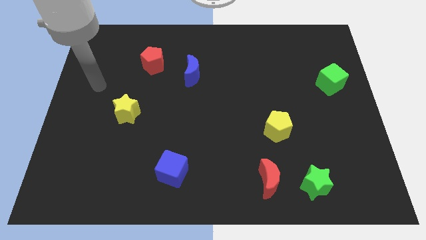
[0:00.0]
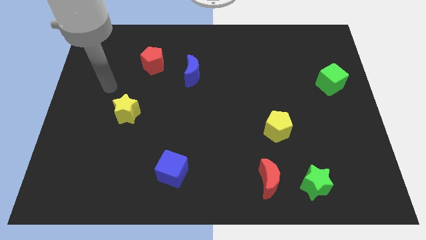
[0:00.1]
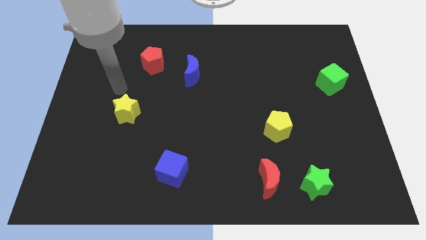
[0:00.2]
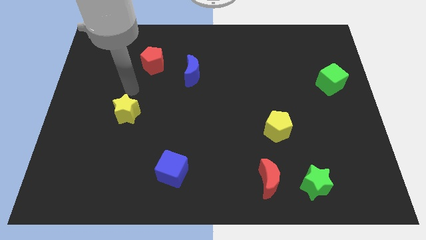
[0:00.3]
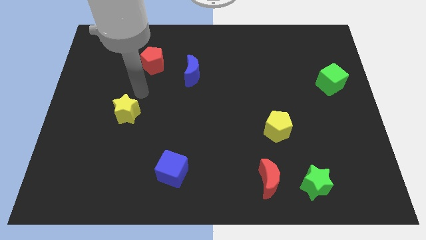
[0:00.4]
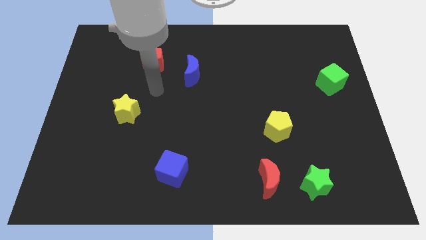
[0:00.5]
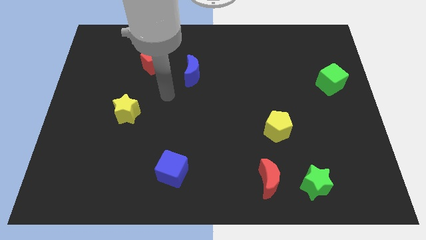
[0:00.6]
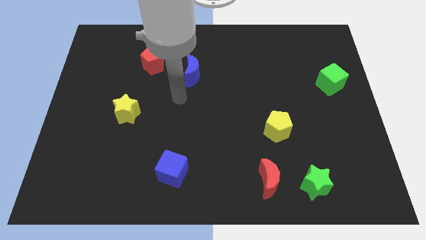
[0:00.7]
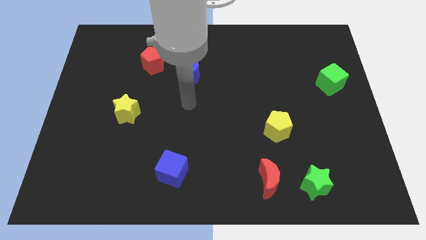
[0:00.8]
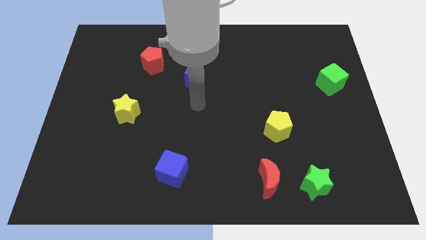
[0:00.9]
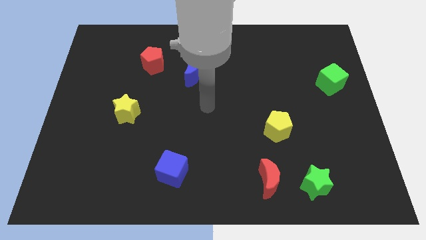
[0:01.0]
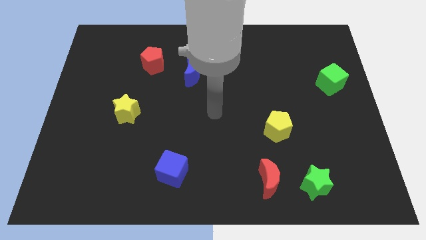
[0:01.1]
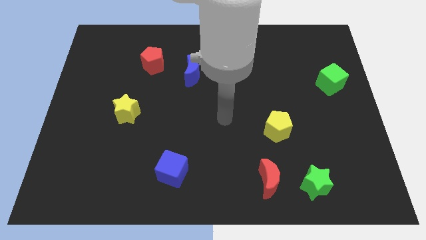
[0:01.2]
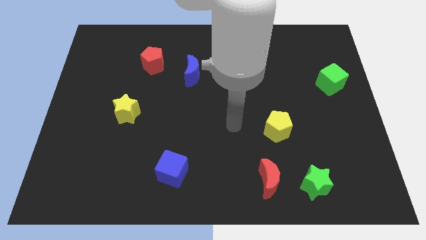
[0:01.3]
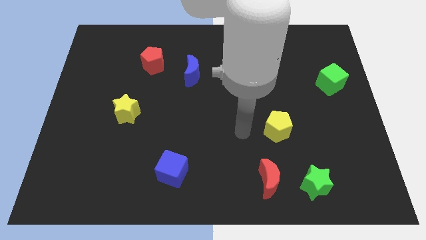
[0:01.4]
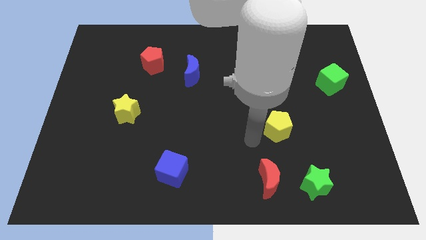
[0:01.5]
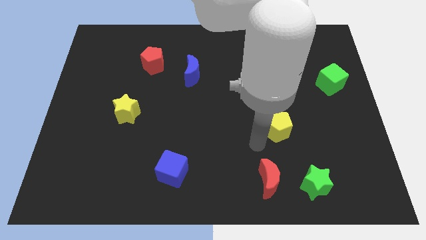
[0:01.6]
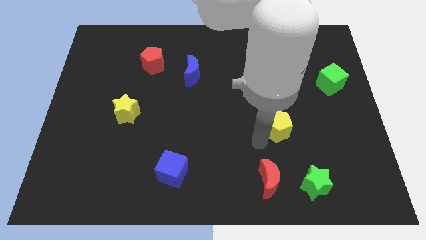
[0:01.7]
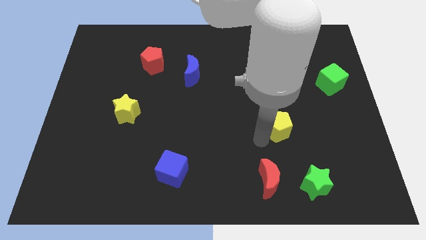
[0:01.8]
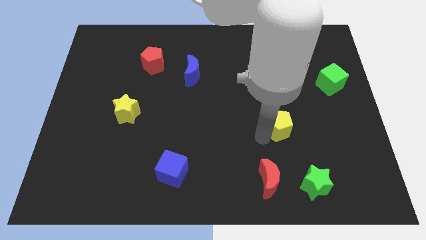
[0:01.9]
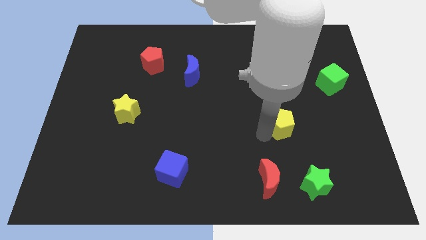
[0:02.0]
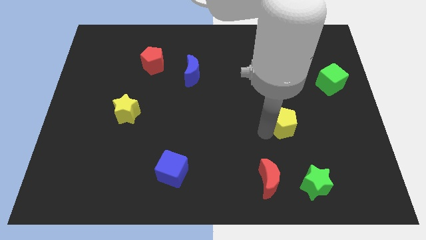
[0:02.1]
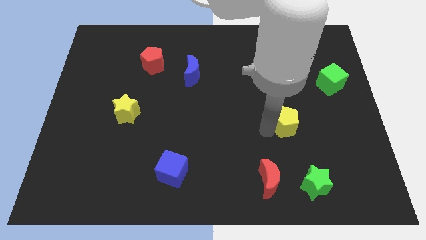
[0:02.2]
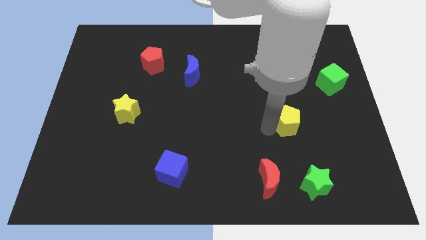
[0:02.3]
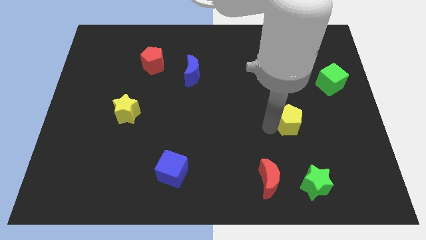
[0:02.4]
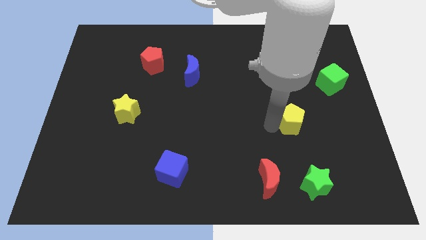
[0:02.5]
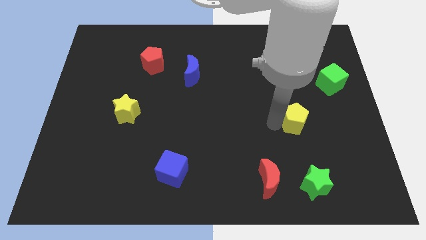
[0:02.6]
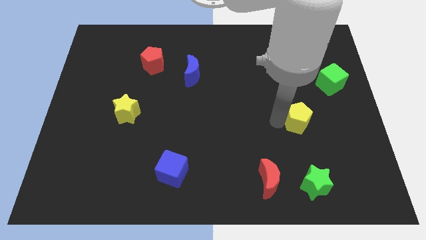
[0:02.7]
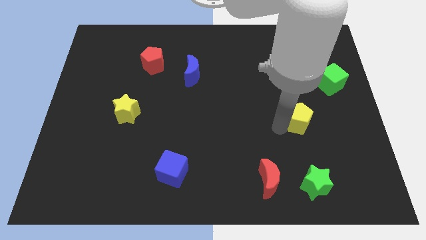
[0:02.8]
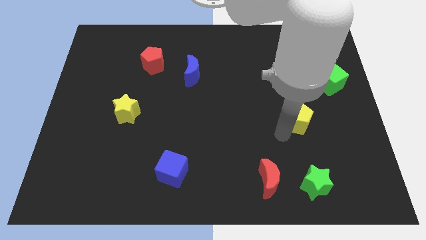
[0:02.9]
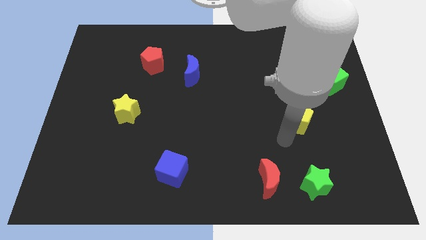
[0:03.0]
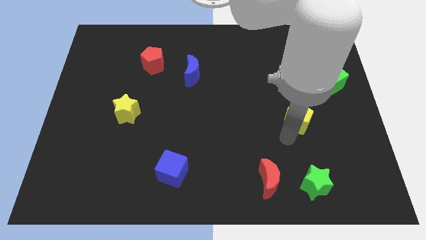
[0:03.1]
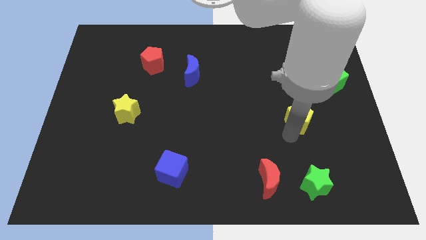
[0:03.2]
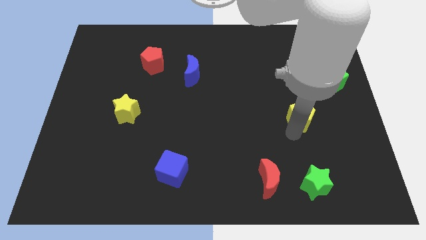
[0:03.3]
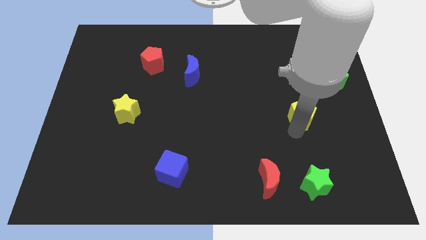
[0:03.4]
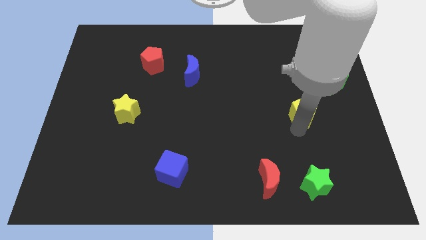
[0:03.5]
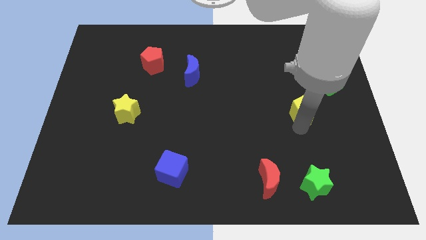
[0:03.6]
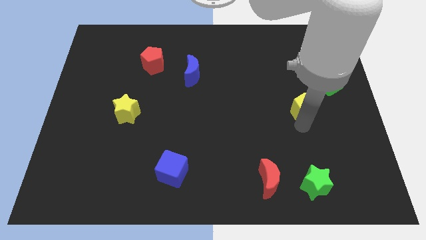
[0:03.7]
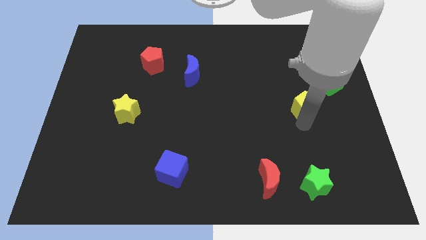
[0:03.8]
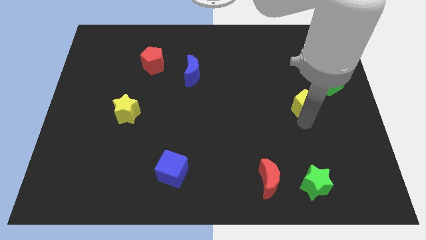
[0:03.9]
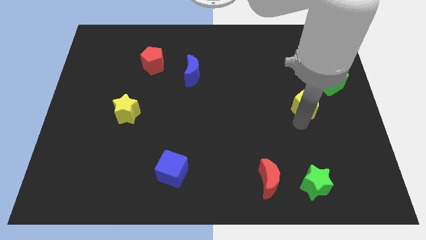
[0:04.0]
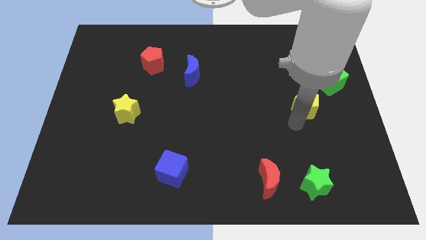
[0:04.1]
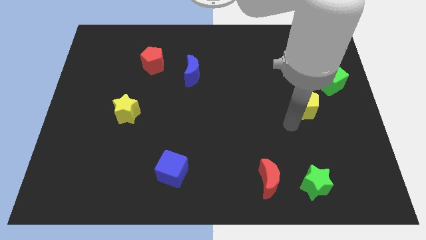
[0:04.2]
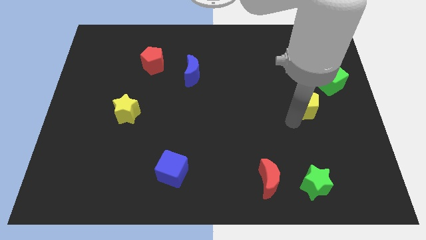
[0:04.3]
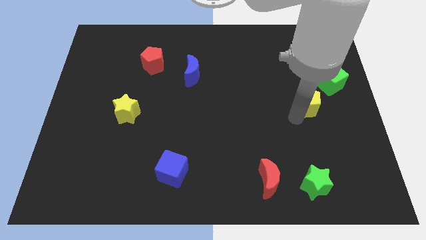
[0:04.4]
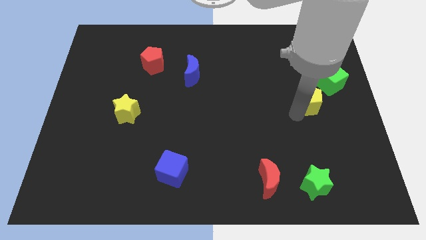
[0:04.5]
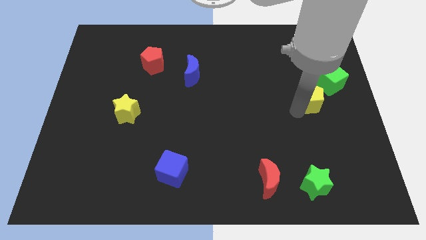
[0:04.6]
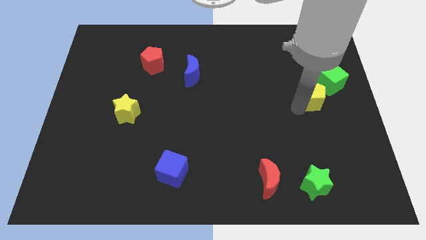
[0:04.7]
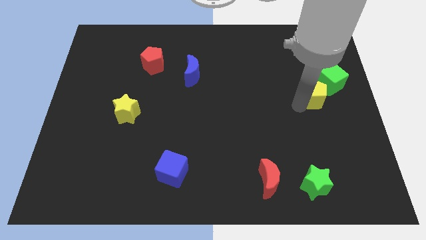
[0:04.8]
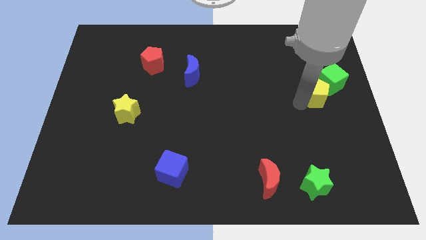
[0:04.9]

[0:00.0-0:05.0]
slide the yellow pentagon close to the green cube

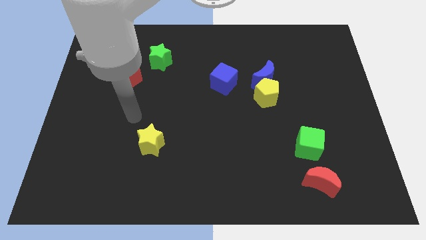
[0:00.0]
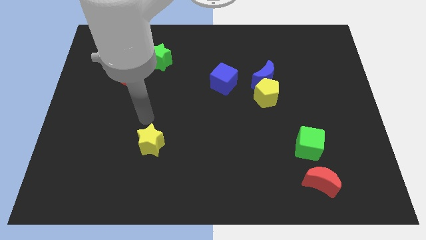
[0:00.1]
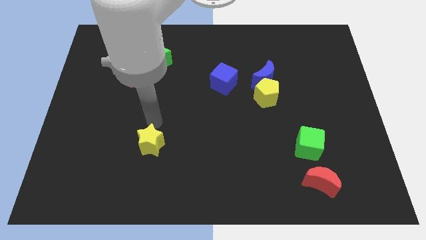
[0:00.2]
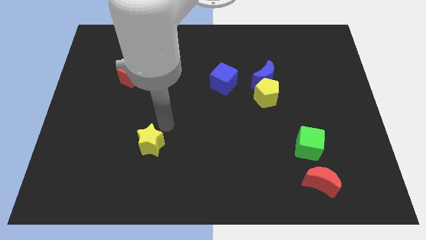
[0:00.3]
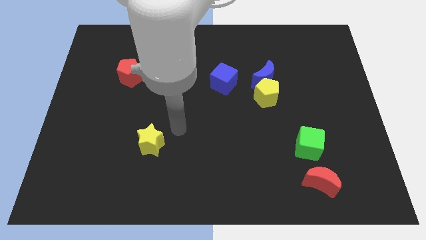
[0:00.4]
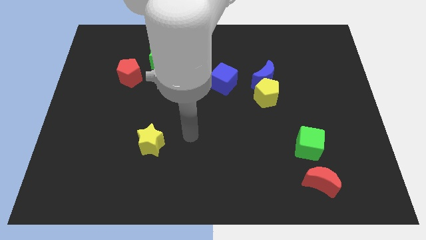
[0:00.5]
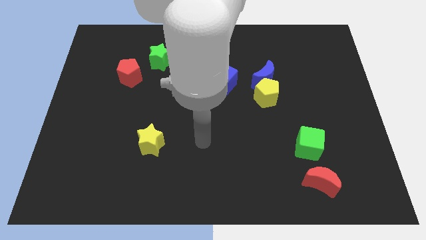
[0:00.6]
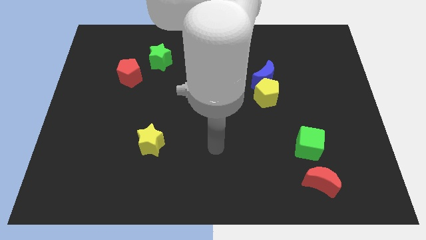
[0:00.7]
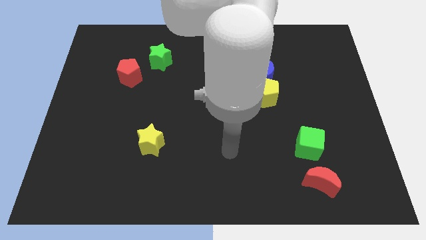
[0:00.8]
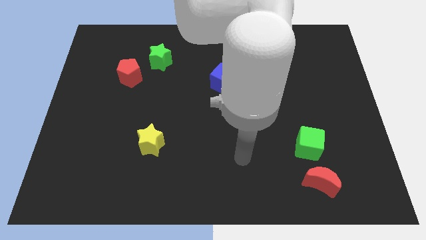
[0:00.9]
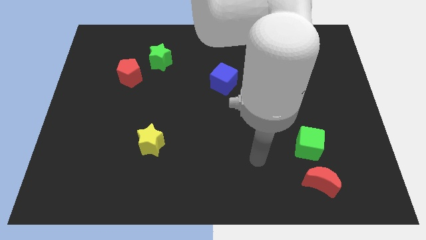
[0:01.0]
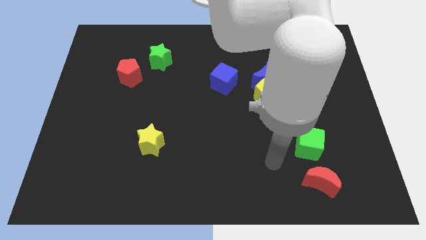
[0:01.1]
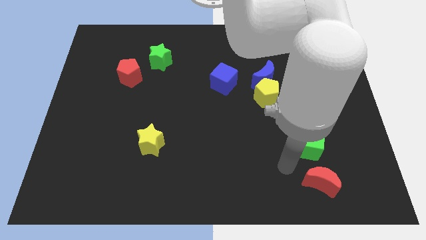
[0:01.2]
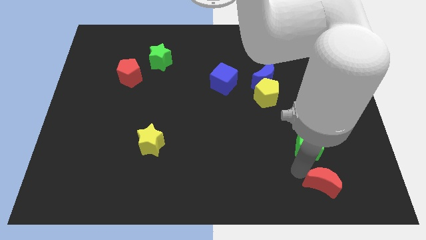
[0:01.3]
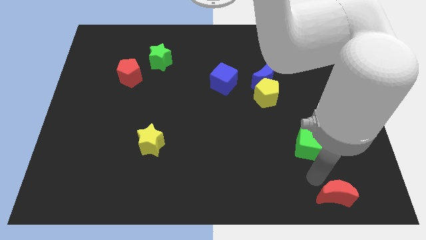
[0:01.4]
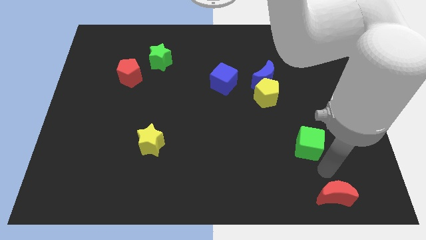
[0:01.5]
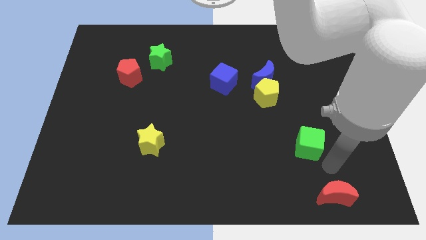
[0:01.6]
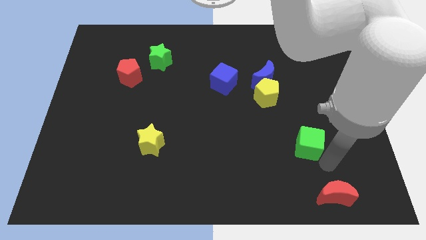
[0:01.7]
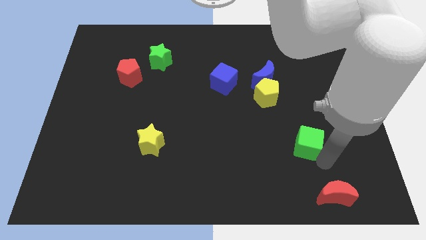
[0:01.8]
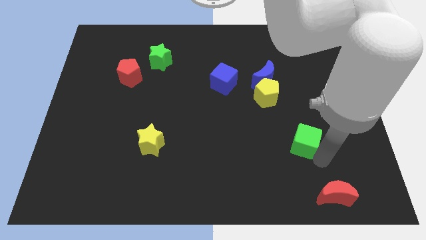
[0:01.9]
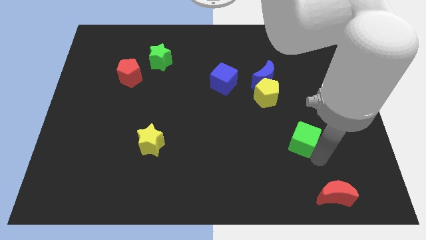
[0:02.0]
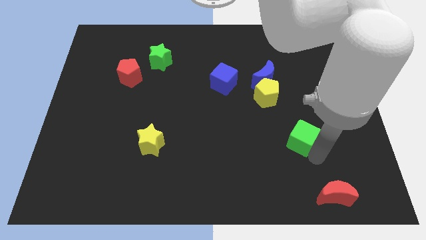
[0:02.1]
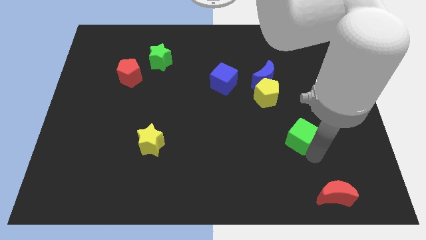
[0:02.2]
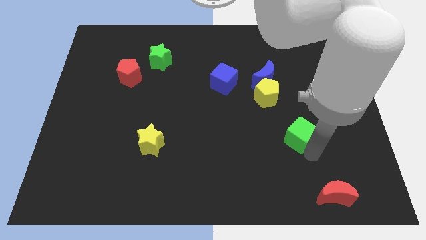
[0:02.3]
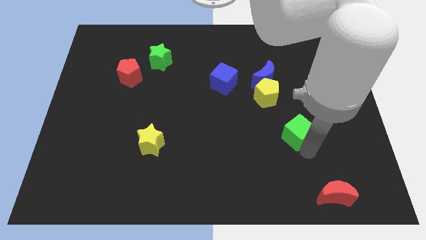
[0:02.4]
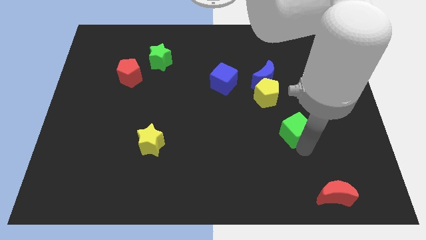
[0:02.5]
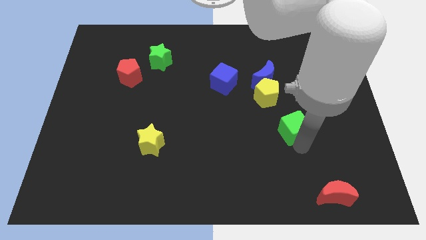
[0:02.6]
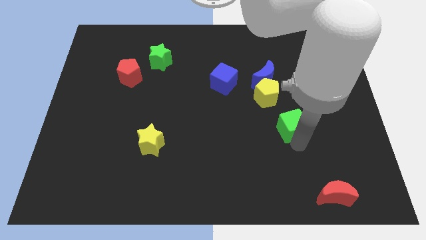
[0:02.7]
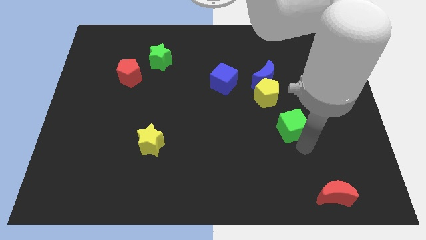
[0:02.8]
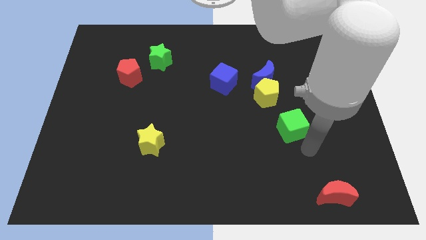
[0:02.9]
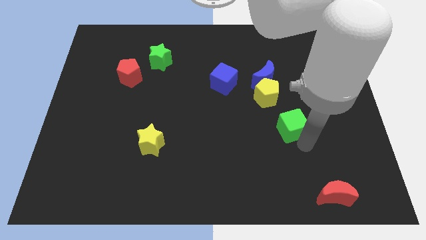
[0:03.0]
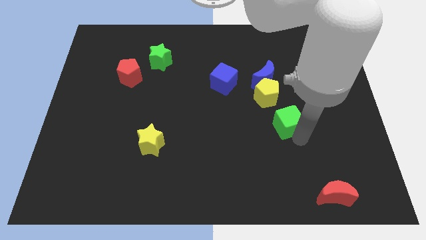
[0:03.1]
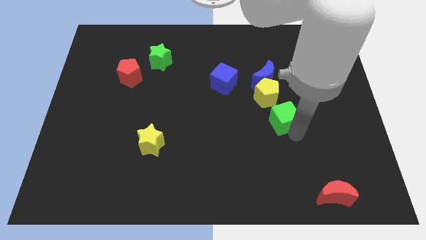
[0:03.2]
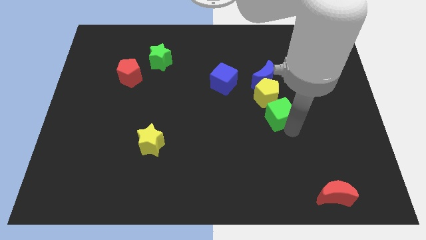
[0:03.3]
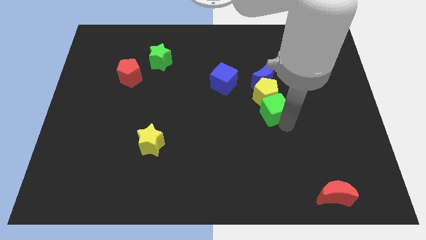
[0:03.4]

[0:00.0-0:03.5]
move the green cube towards the yellow pentagon
